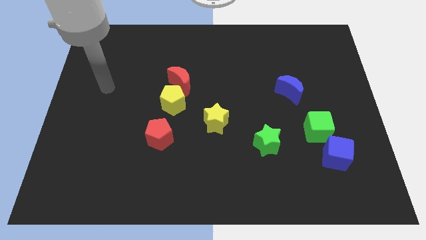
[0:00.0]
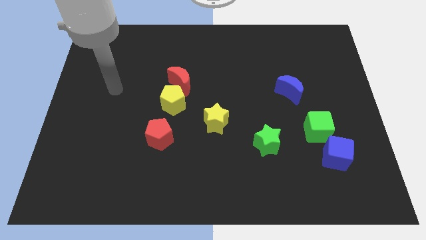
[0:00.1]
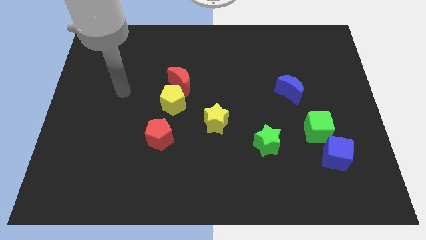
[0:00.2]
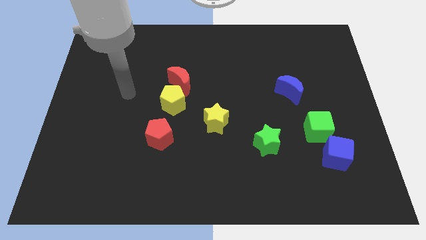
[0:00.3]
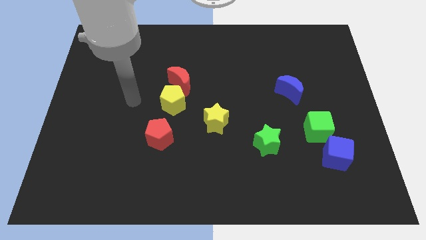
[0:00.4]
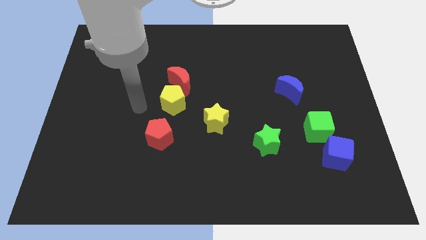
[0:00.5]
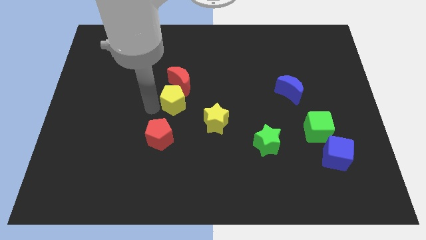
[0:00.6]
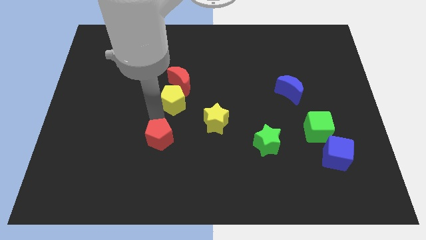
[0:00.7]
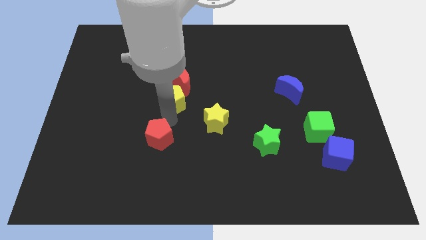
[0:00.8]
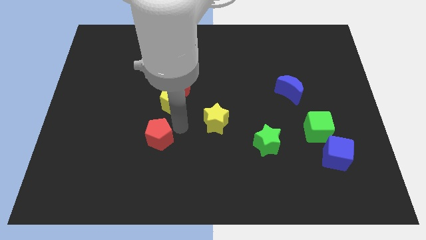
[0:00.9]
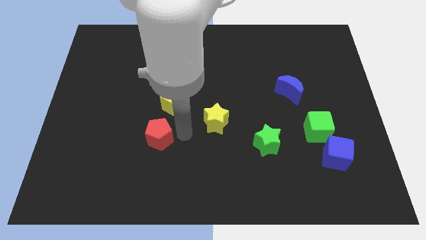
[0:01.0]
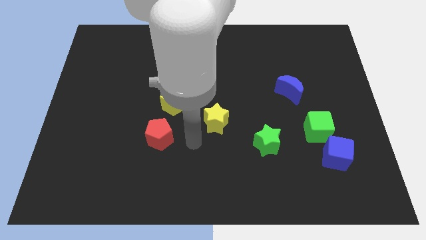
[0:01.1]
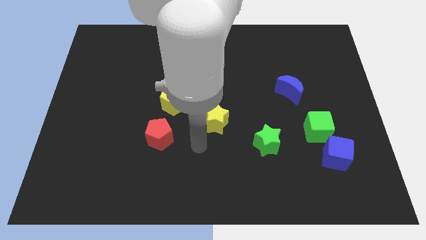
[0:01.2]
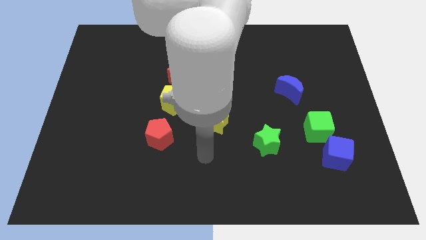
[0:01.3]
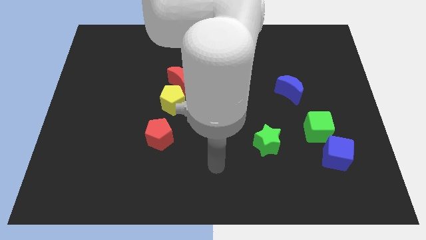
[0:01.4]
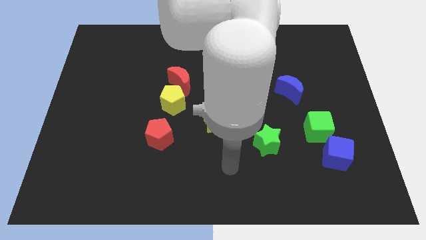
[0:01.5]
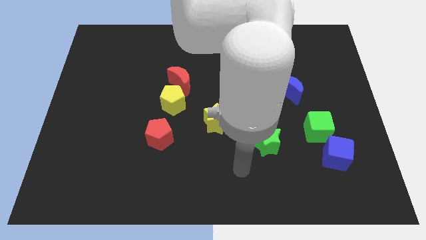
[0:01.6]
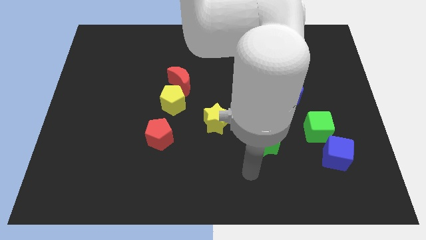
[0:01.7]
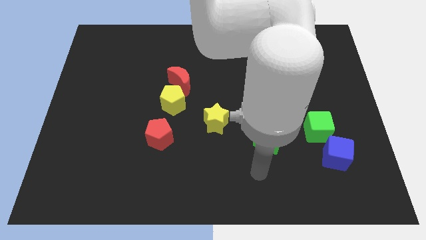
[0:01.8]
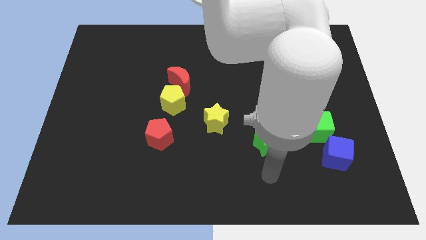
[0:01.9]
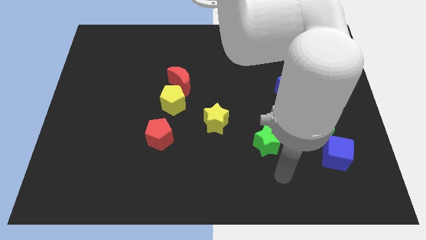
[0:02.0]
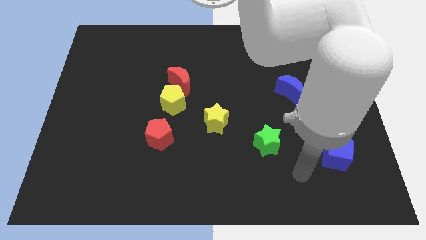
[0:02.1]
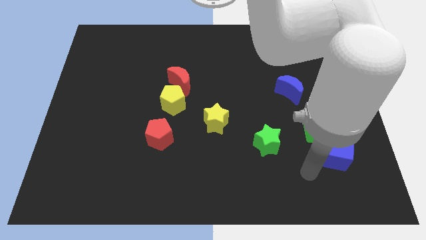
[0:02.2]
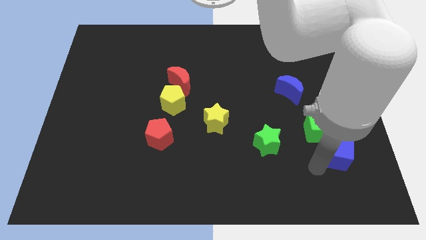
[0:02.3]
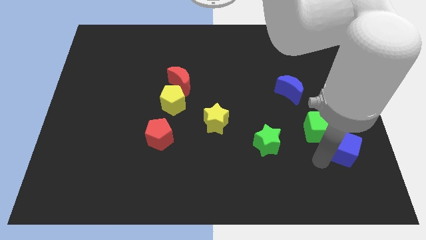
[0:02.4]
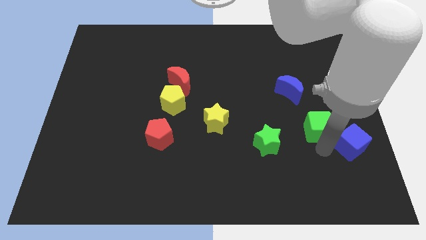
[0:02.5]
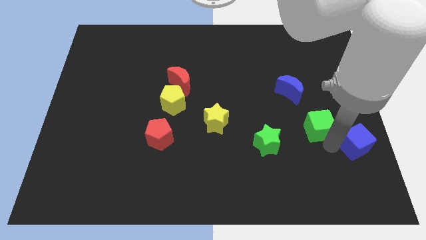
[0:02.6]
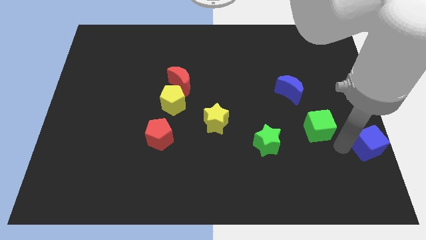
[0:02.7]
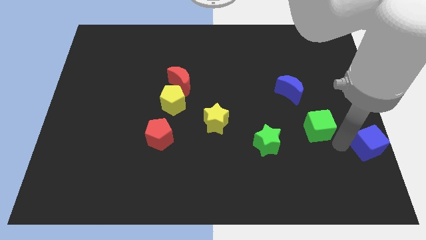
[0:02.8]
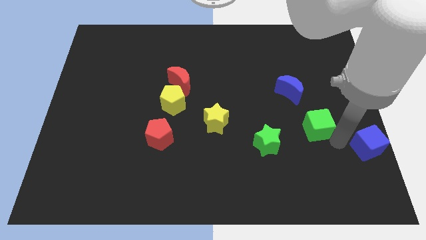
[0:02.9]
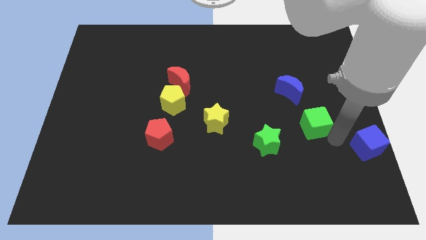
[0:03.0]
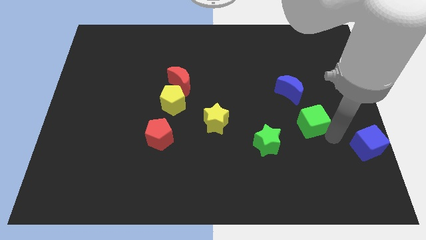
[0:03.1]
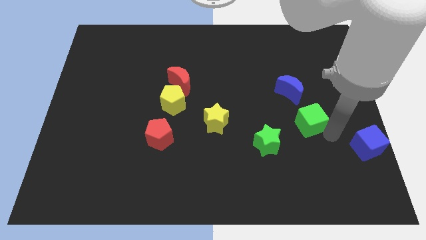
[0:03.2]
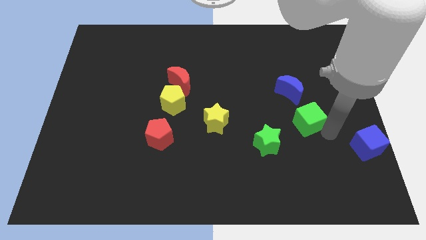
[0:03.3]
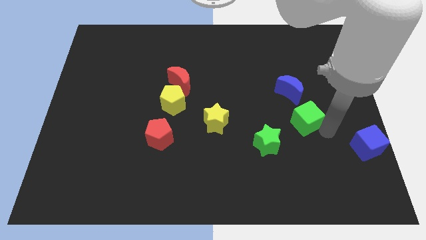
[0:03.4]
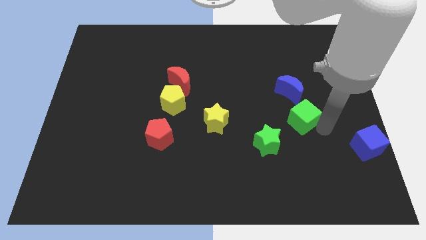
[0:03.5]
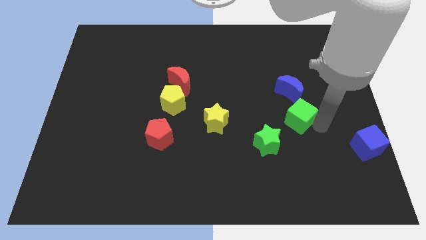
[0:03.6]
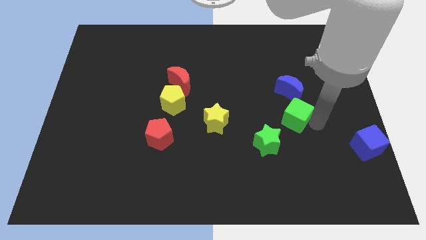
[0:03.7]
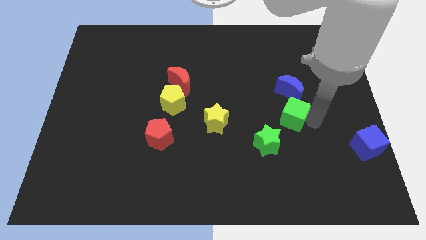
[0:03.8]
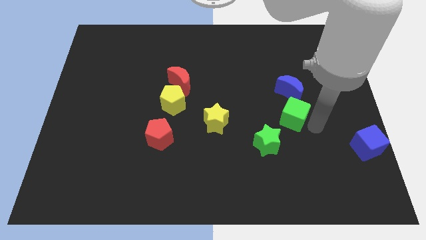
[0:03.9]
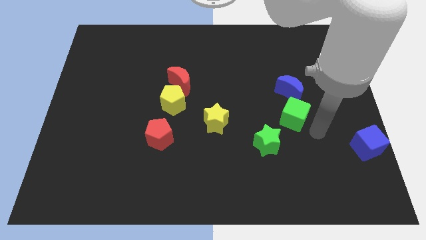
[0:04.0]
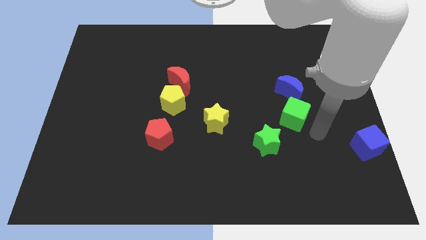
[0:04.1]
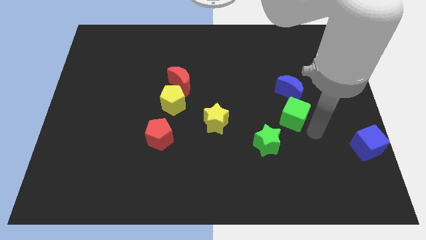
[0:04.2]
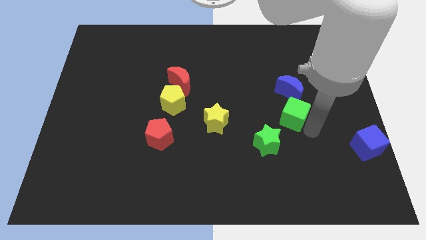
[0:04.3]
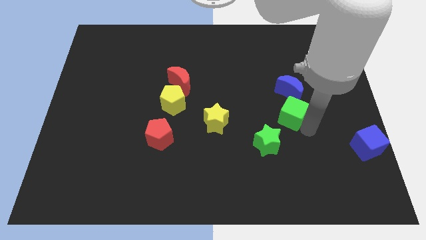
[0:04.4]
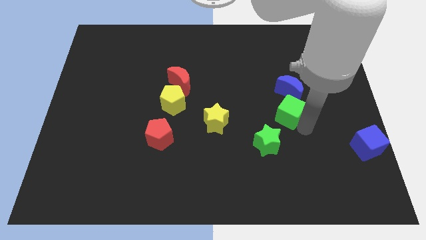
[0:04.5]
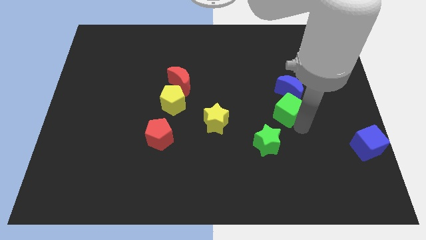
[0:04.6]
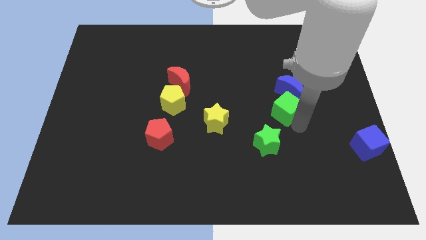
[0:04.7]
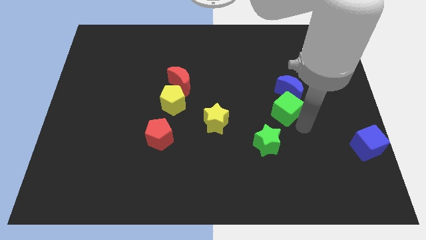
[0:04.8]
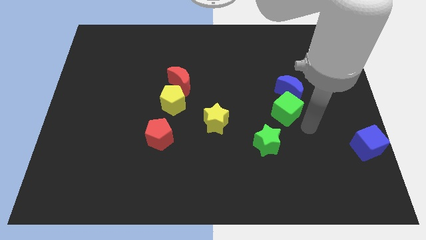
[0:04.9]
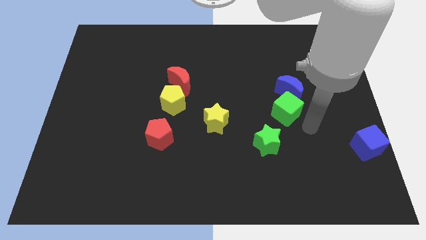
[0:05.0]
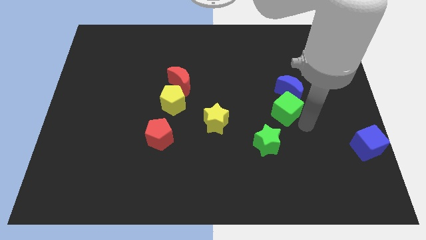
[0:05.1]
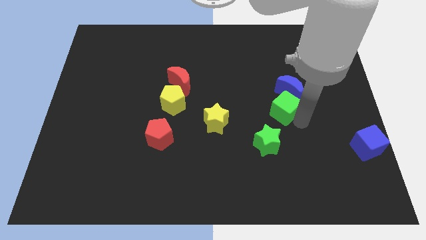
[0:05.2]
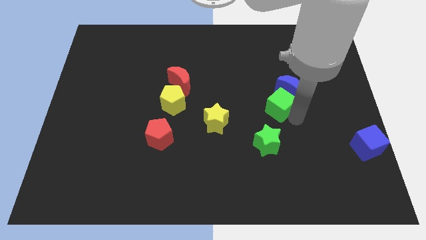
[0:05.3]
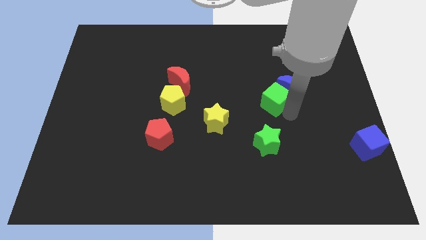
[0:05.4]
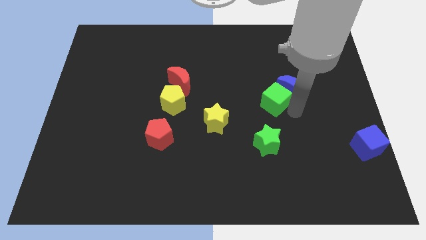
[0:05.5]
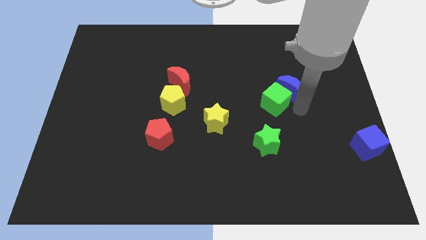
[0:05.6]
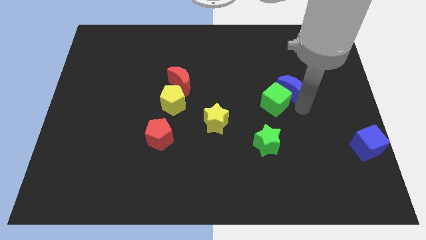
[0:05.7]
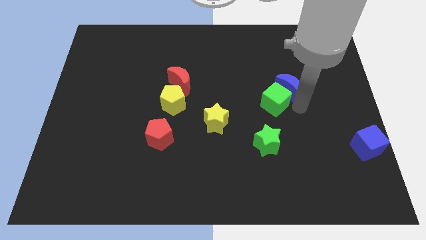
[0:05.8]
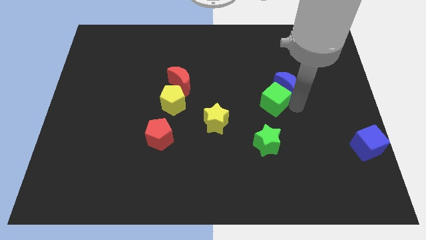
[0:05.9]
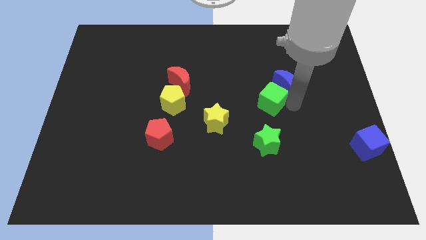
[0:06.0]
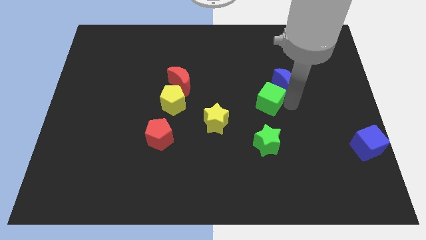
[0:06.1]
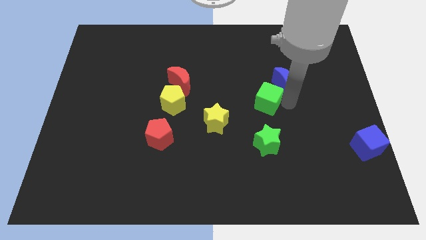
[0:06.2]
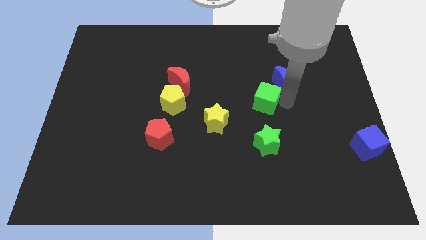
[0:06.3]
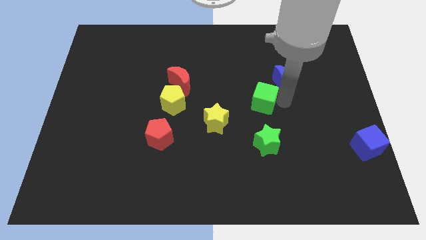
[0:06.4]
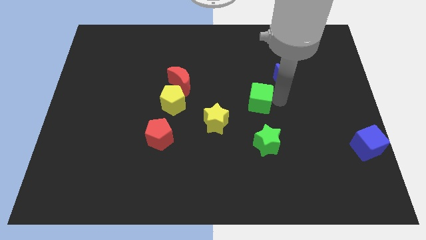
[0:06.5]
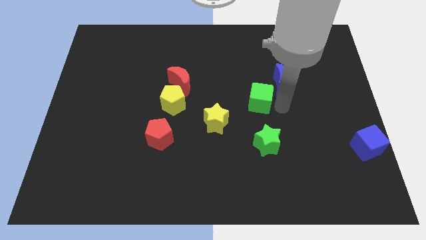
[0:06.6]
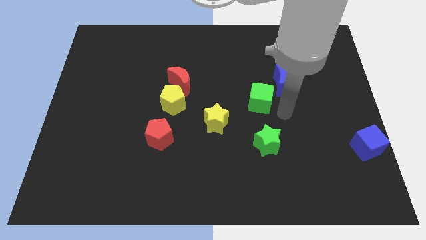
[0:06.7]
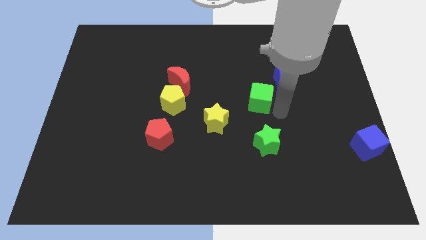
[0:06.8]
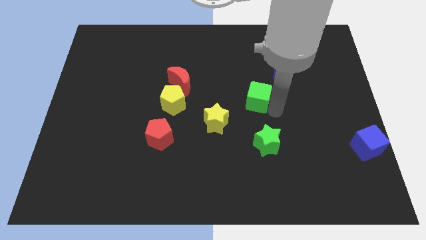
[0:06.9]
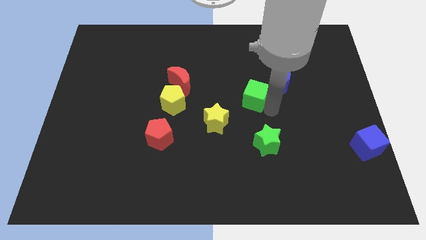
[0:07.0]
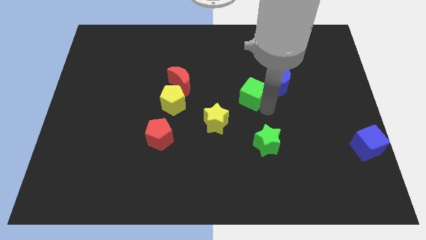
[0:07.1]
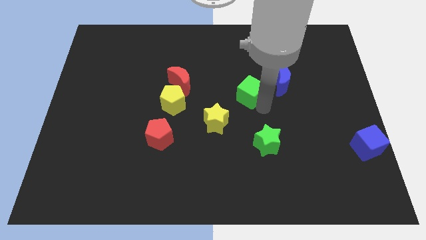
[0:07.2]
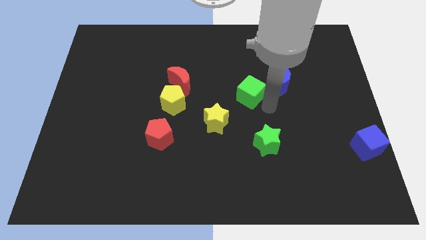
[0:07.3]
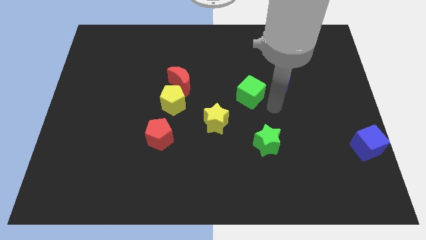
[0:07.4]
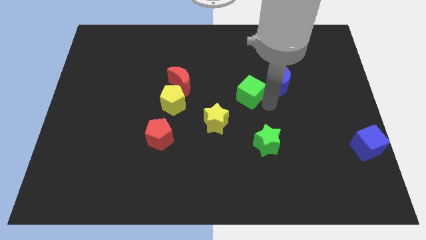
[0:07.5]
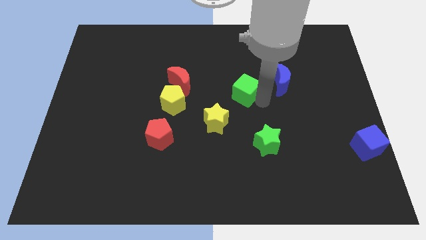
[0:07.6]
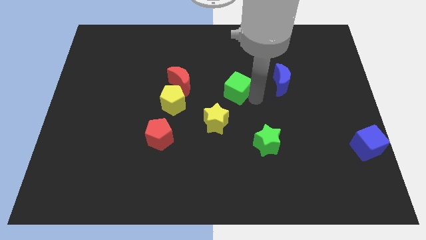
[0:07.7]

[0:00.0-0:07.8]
slide the green cube to the right side of the red moon
